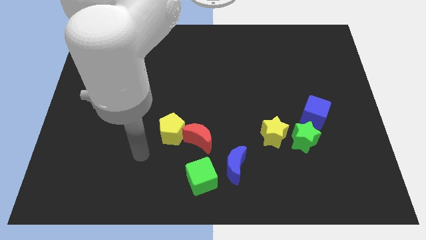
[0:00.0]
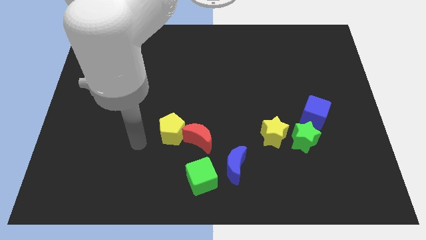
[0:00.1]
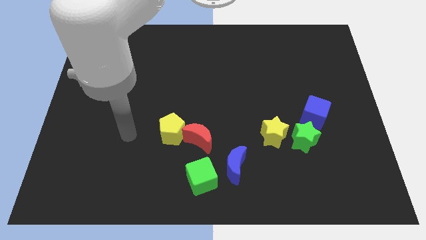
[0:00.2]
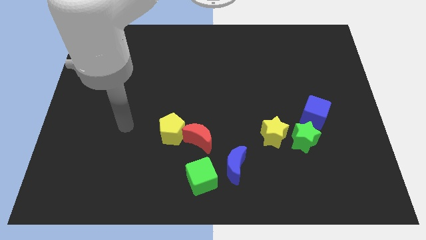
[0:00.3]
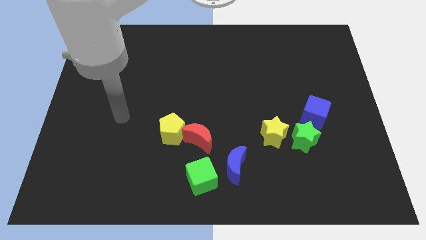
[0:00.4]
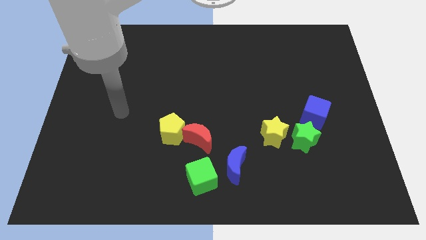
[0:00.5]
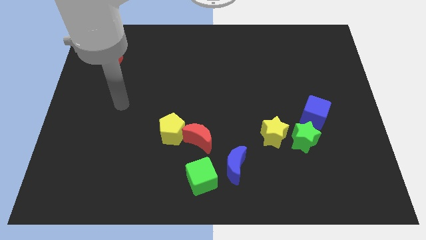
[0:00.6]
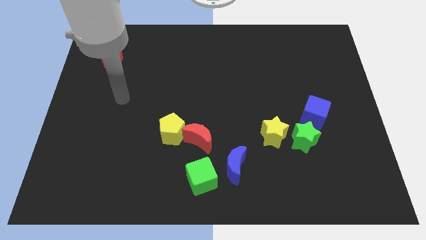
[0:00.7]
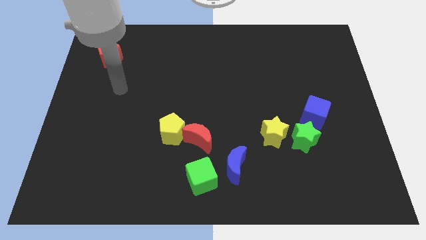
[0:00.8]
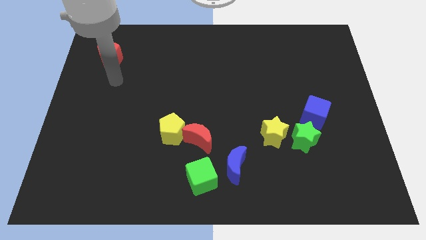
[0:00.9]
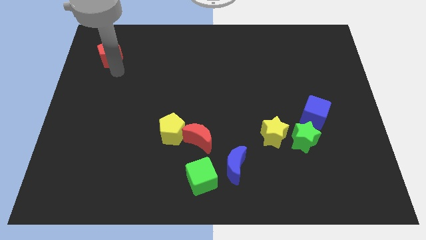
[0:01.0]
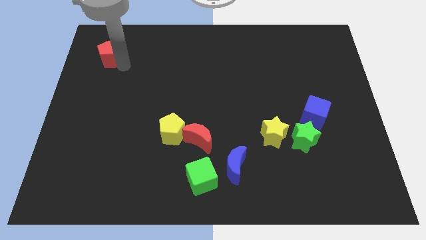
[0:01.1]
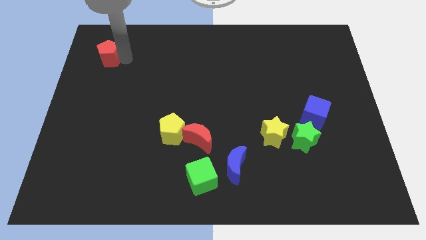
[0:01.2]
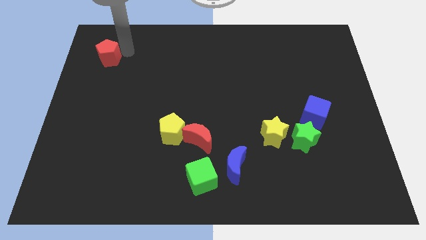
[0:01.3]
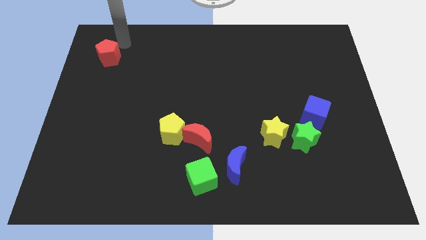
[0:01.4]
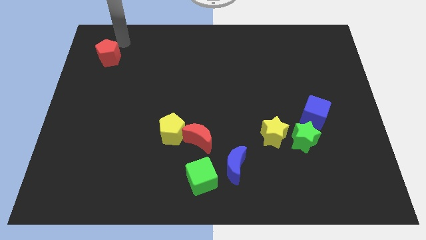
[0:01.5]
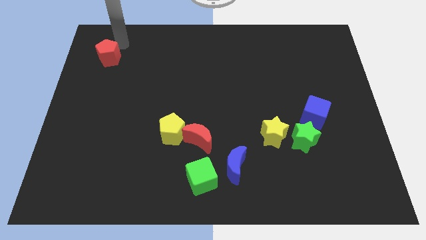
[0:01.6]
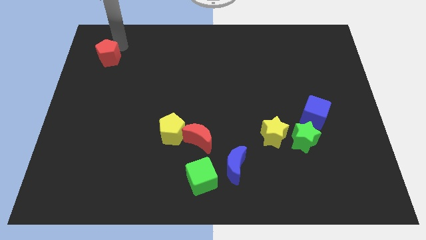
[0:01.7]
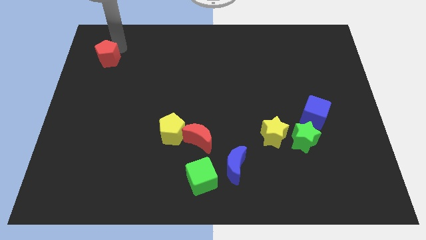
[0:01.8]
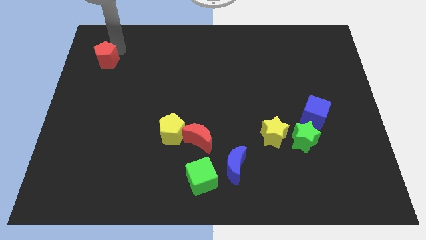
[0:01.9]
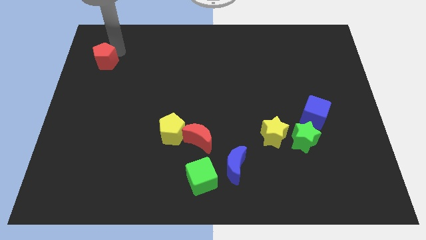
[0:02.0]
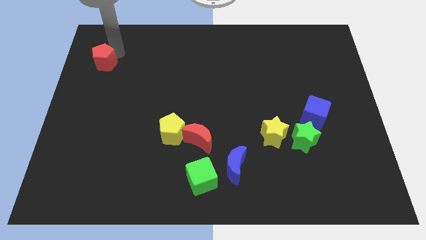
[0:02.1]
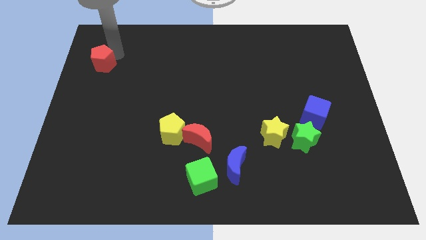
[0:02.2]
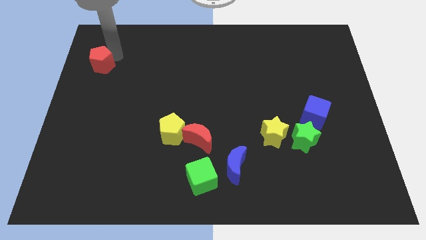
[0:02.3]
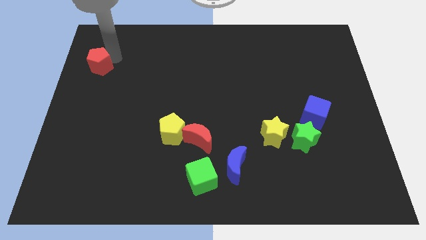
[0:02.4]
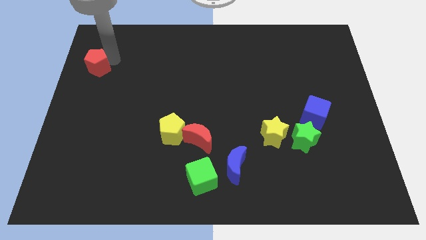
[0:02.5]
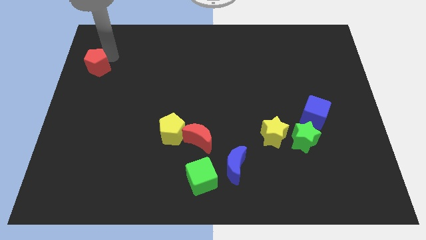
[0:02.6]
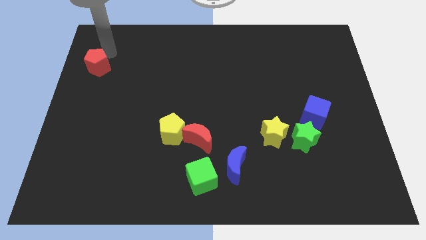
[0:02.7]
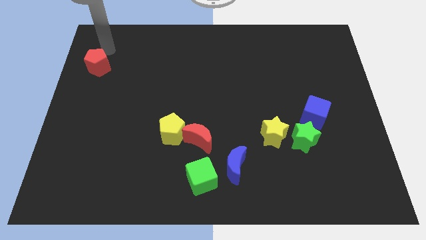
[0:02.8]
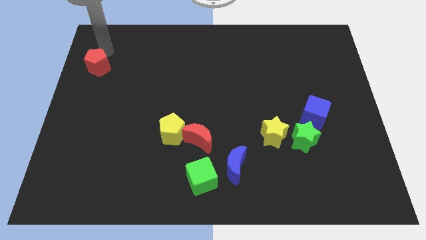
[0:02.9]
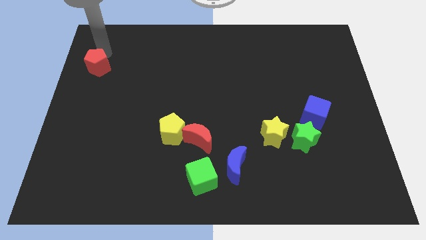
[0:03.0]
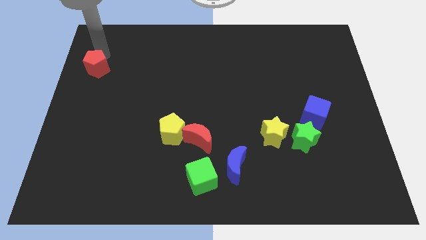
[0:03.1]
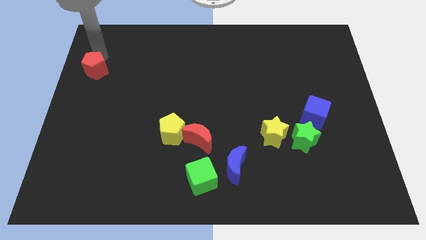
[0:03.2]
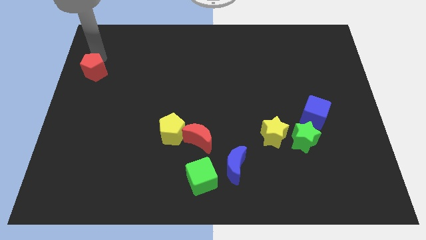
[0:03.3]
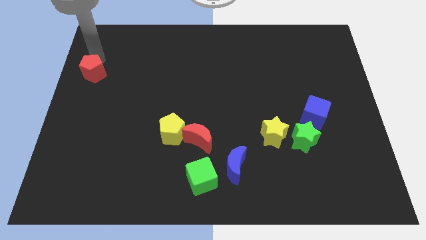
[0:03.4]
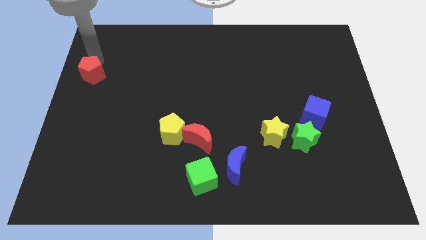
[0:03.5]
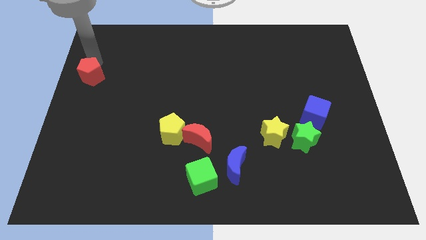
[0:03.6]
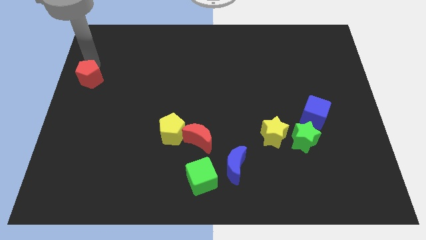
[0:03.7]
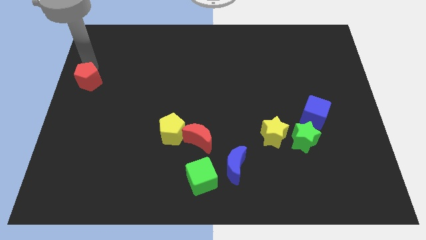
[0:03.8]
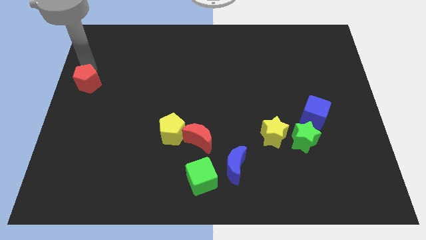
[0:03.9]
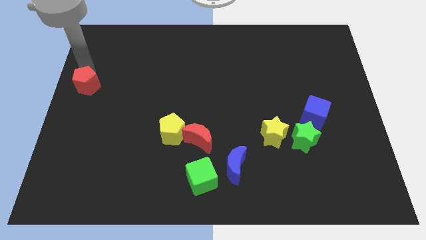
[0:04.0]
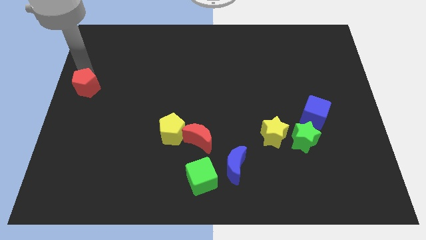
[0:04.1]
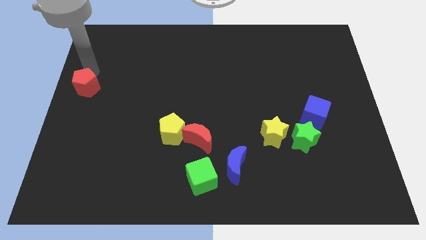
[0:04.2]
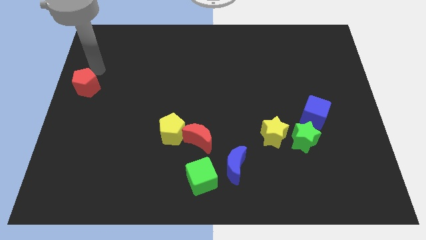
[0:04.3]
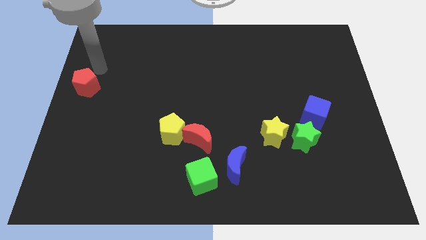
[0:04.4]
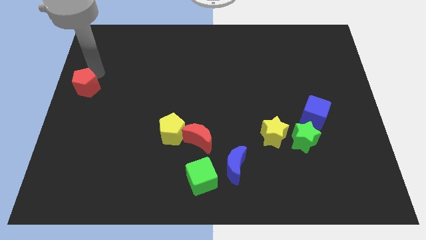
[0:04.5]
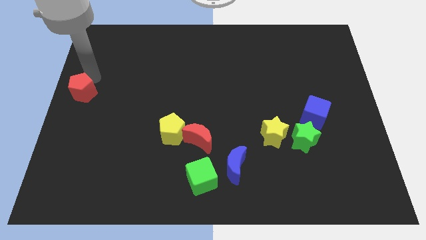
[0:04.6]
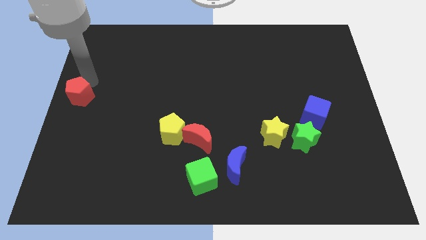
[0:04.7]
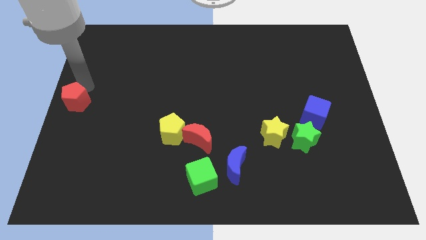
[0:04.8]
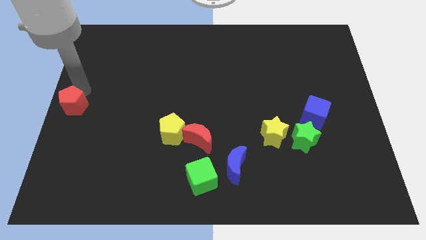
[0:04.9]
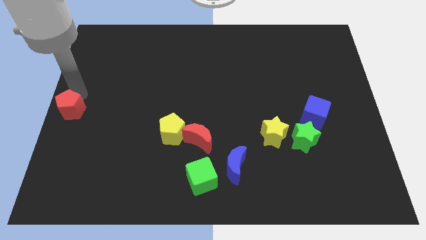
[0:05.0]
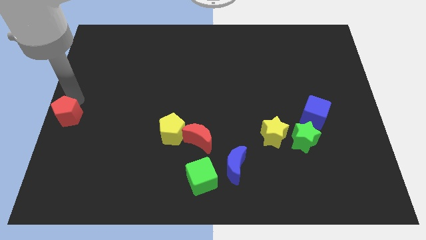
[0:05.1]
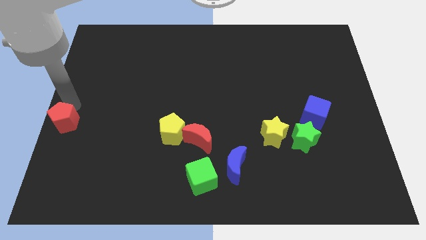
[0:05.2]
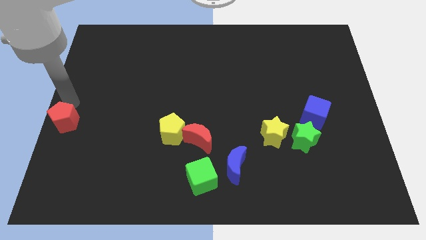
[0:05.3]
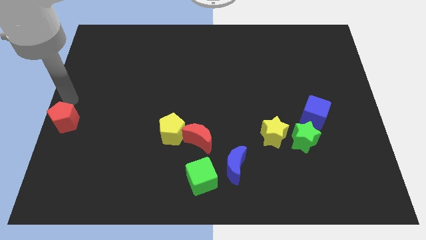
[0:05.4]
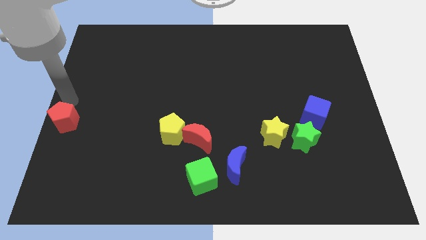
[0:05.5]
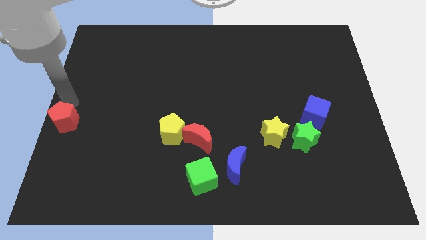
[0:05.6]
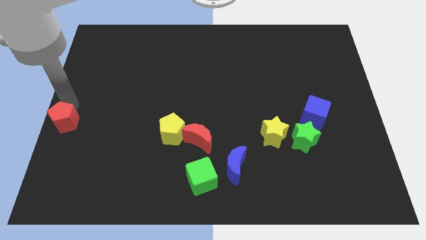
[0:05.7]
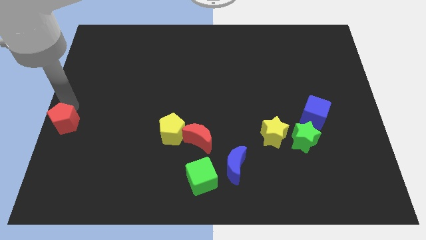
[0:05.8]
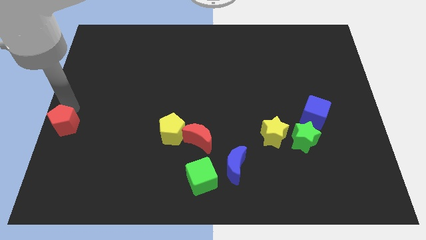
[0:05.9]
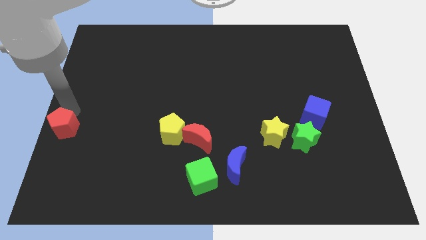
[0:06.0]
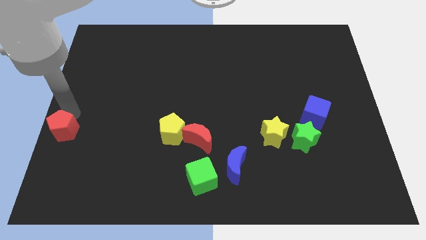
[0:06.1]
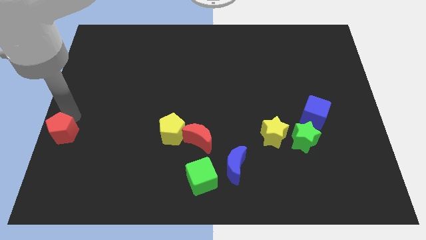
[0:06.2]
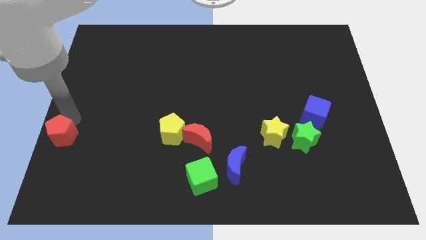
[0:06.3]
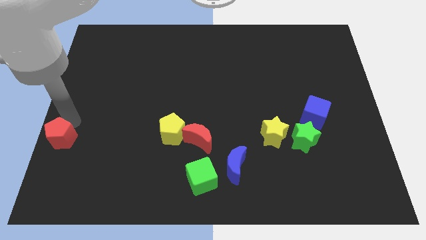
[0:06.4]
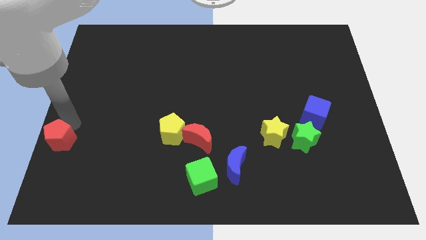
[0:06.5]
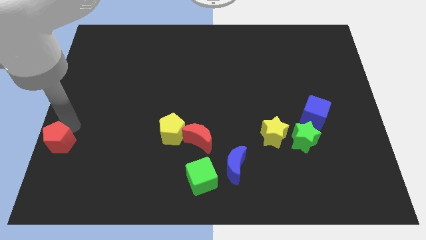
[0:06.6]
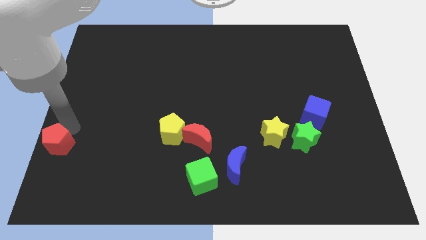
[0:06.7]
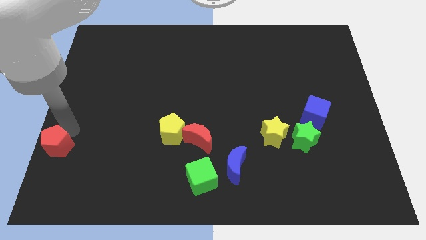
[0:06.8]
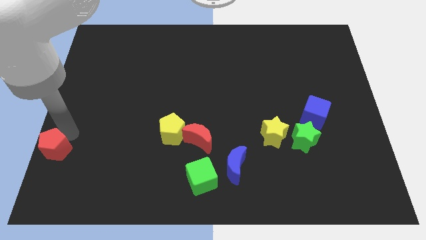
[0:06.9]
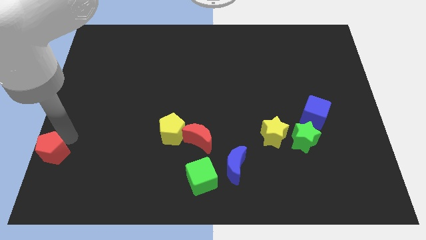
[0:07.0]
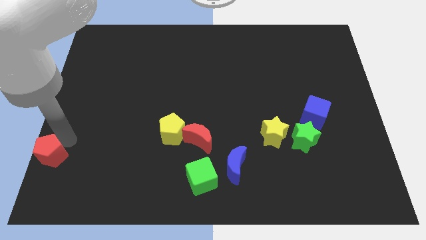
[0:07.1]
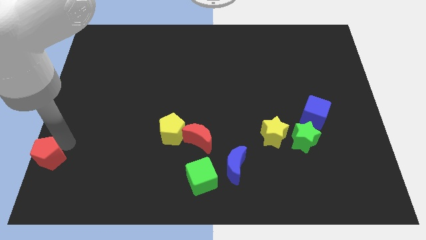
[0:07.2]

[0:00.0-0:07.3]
put the red pentagon to the bottom left
